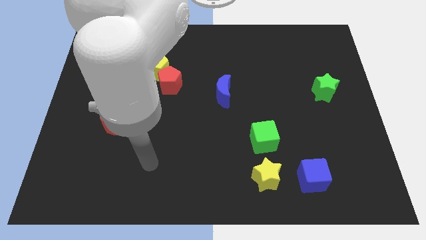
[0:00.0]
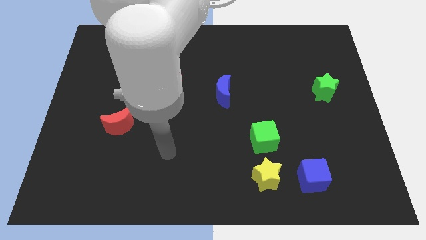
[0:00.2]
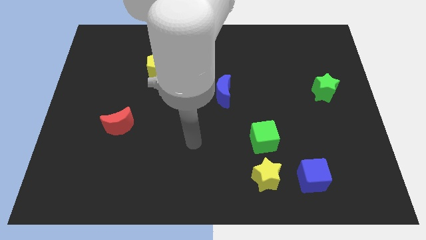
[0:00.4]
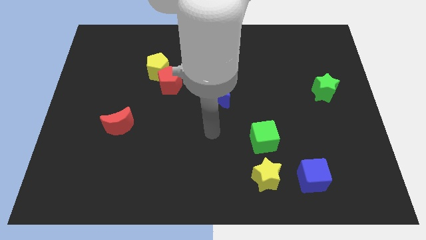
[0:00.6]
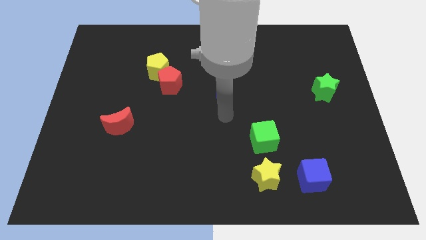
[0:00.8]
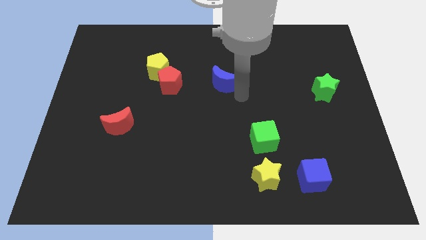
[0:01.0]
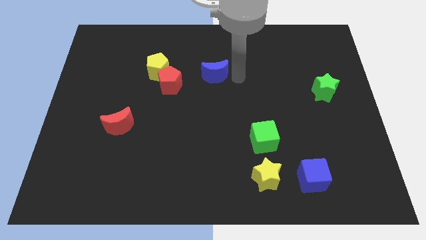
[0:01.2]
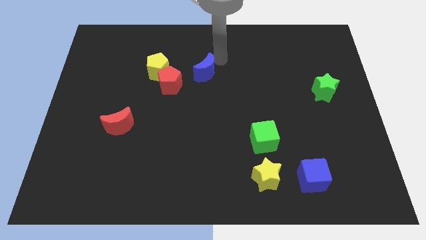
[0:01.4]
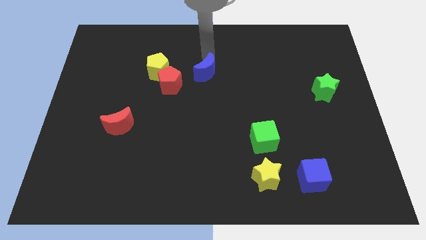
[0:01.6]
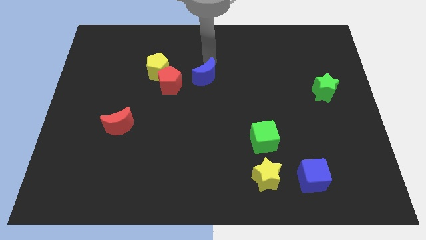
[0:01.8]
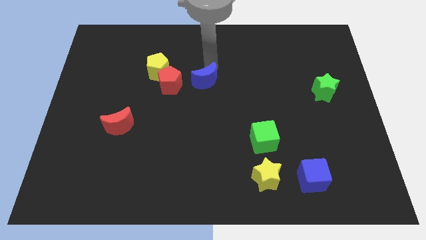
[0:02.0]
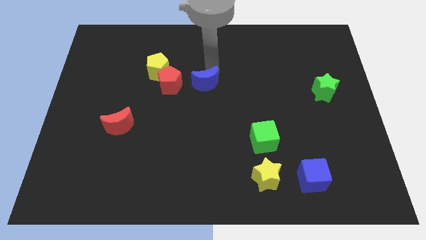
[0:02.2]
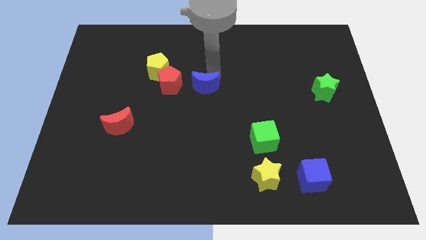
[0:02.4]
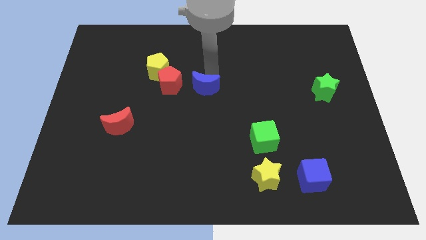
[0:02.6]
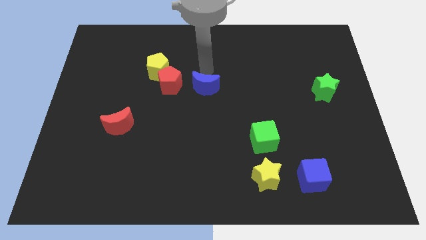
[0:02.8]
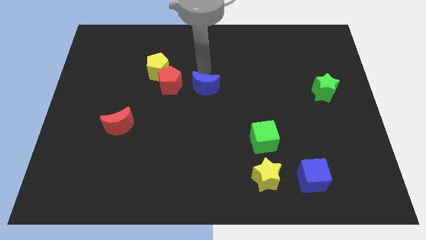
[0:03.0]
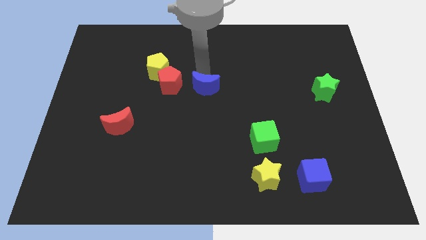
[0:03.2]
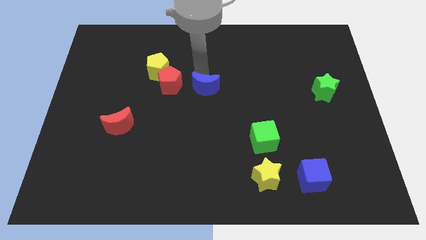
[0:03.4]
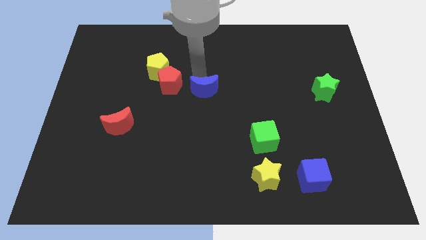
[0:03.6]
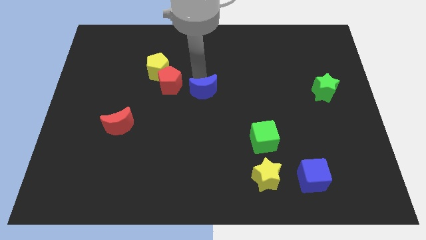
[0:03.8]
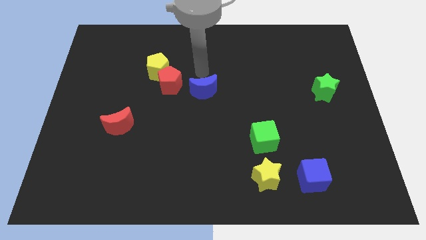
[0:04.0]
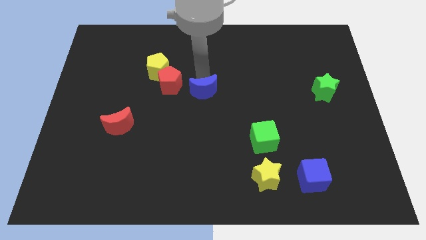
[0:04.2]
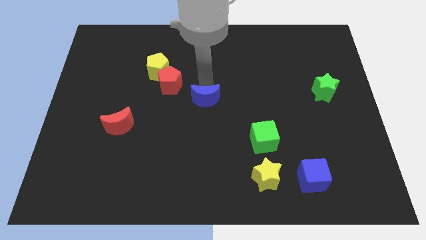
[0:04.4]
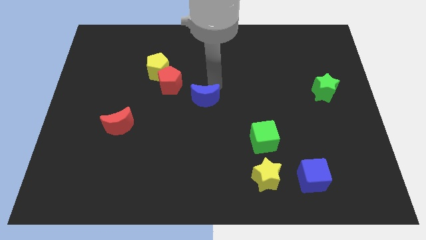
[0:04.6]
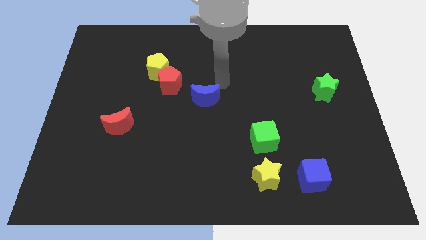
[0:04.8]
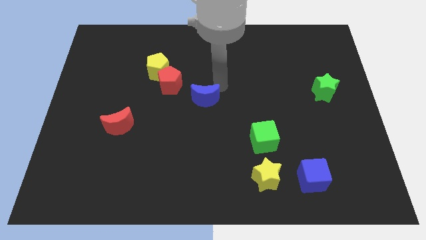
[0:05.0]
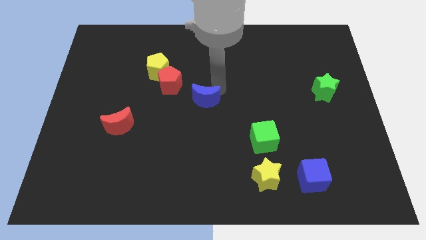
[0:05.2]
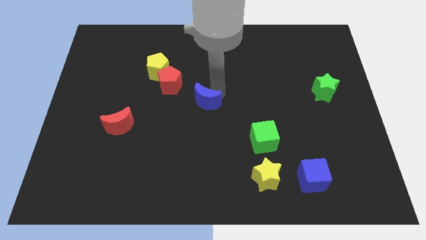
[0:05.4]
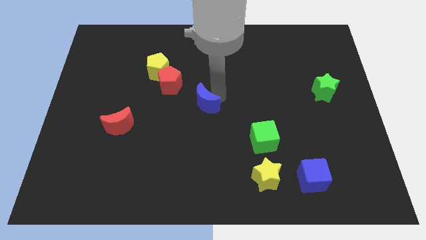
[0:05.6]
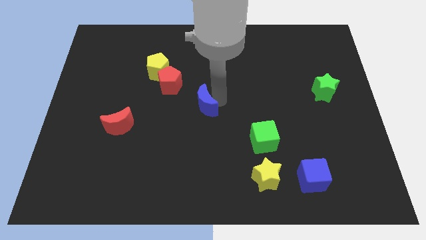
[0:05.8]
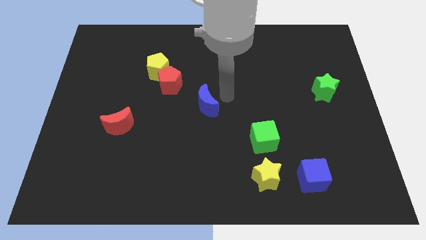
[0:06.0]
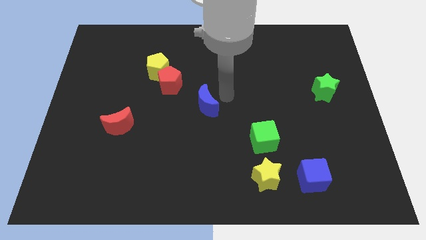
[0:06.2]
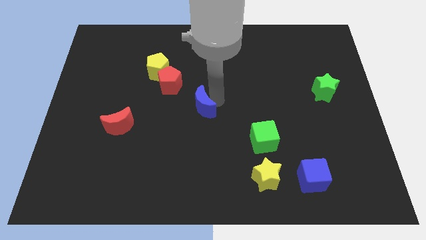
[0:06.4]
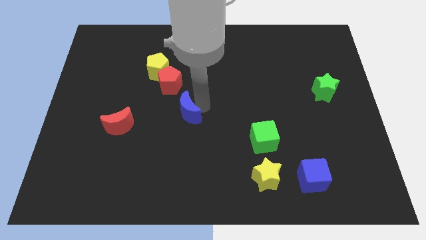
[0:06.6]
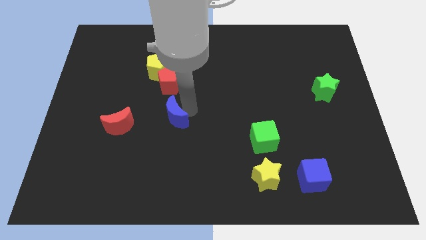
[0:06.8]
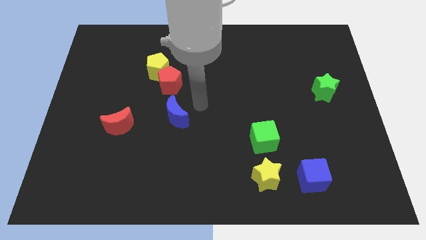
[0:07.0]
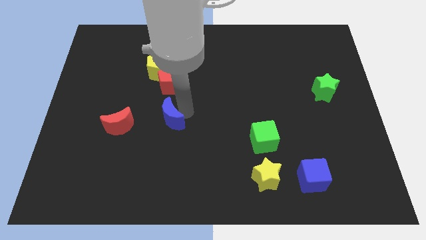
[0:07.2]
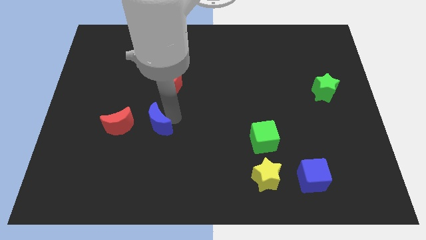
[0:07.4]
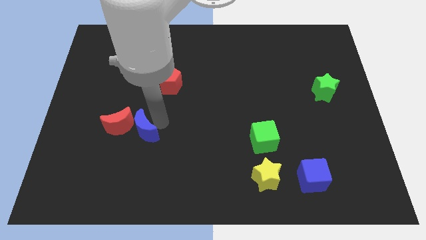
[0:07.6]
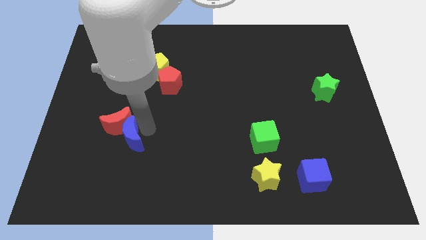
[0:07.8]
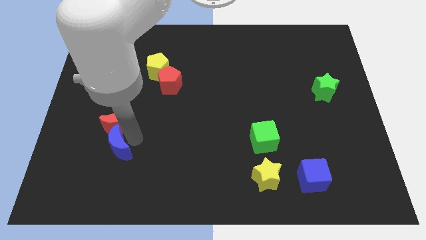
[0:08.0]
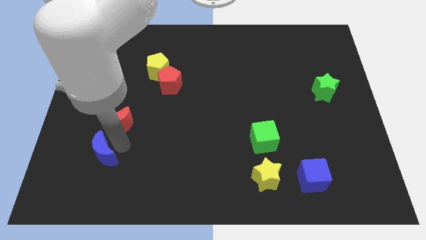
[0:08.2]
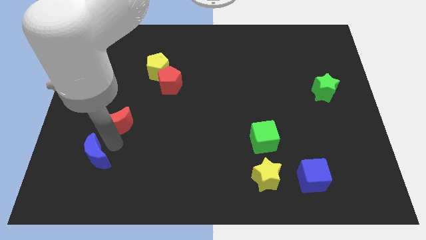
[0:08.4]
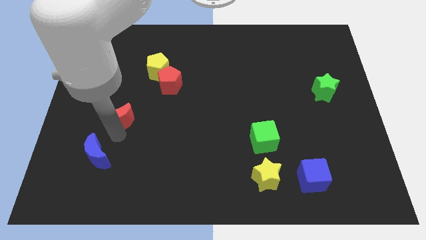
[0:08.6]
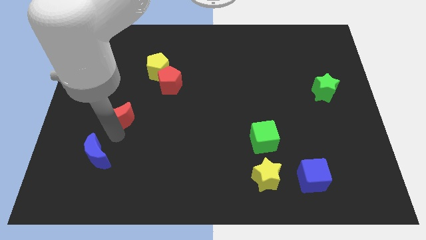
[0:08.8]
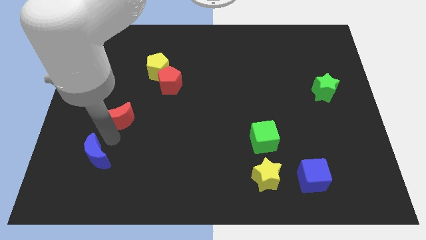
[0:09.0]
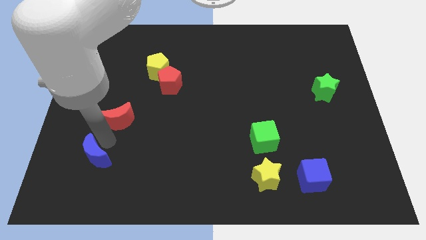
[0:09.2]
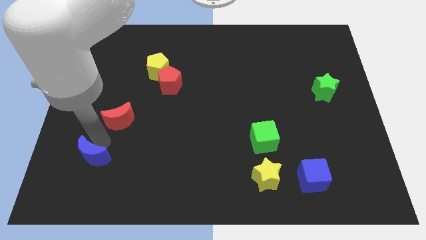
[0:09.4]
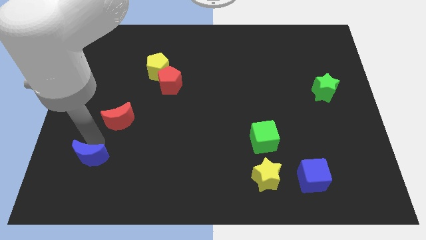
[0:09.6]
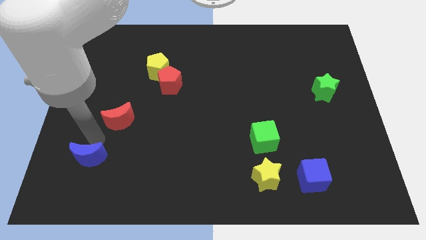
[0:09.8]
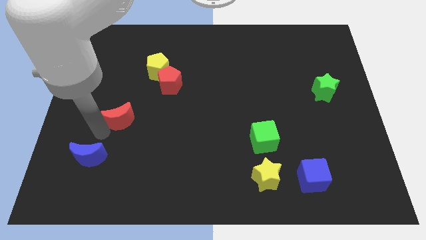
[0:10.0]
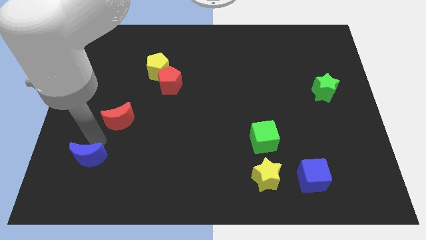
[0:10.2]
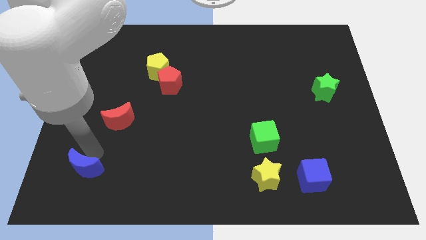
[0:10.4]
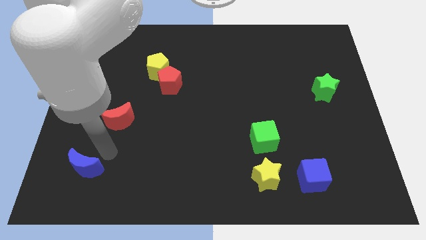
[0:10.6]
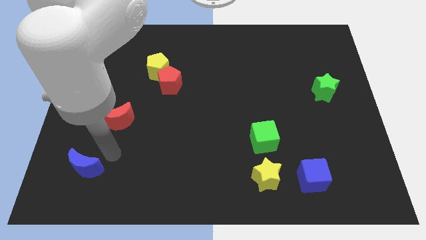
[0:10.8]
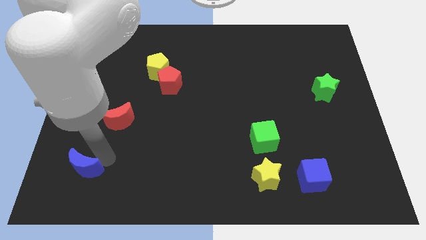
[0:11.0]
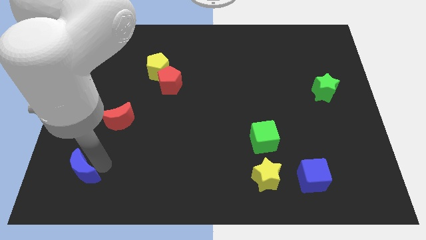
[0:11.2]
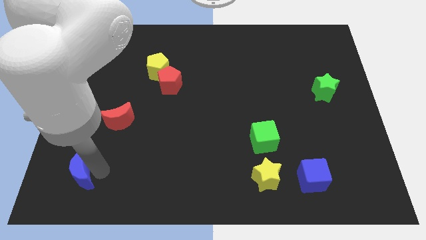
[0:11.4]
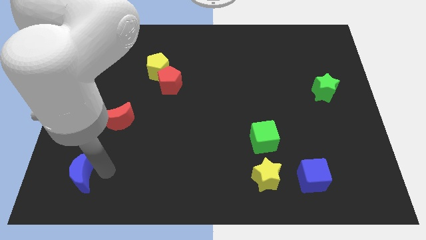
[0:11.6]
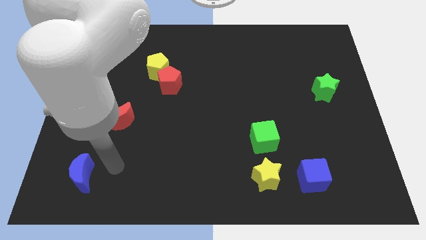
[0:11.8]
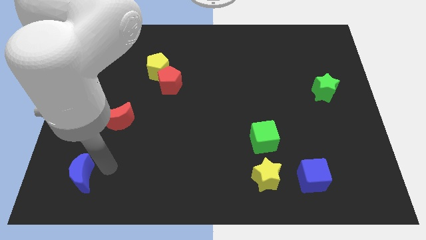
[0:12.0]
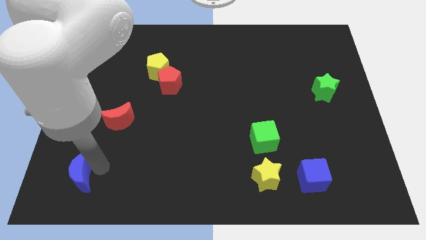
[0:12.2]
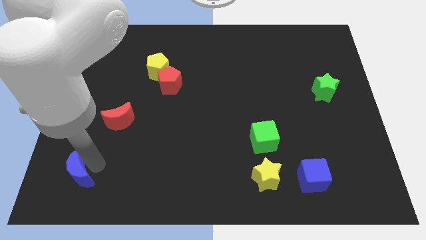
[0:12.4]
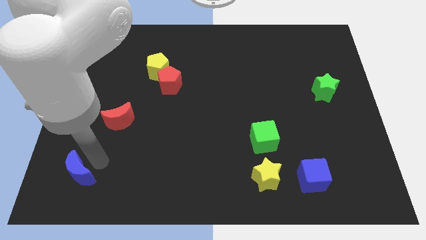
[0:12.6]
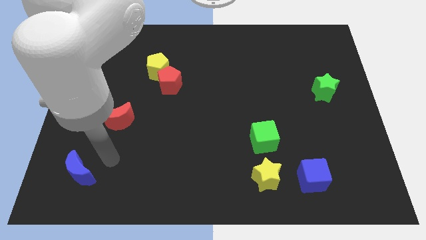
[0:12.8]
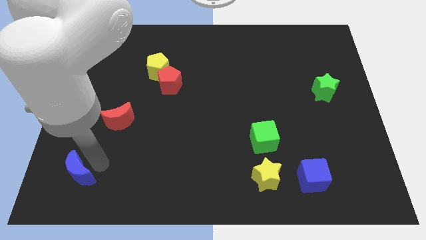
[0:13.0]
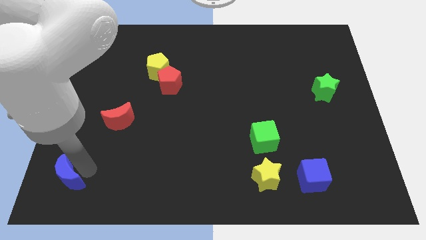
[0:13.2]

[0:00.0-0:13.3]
move the blue moon to the bottom left

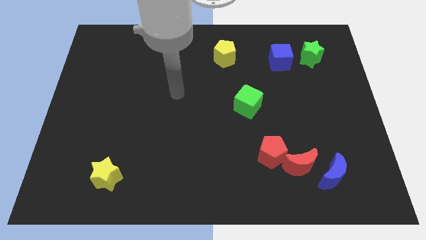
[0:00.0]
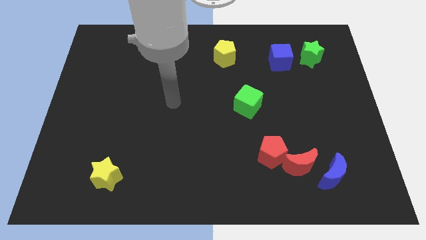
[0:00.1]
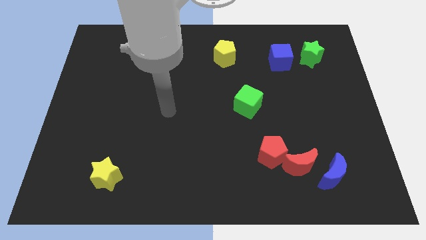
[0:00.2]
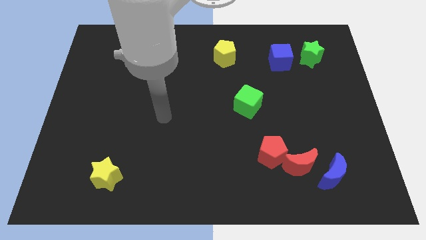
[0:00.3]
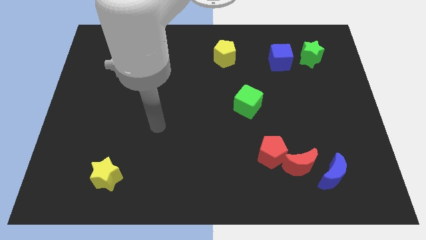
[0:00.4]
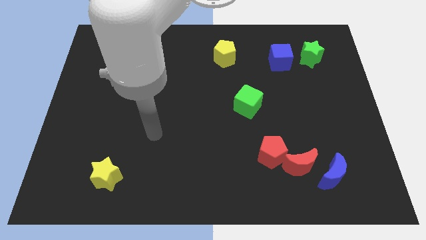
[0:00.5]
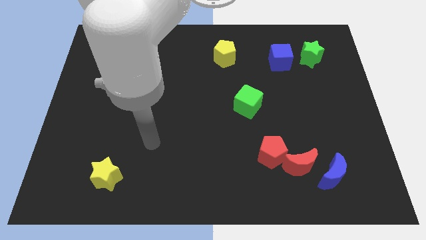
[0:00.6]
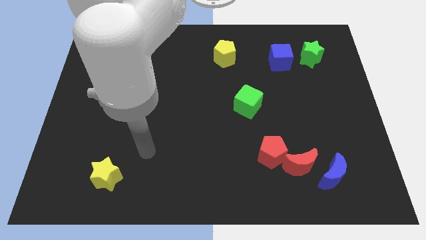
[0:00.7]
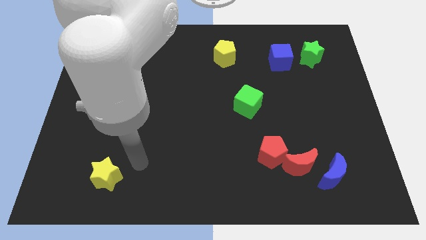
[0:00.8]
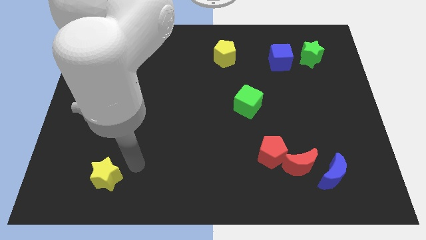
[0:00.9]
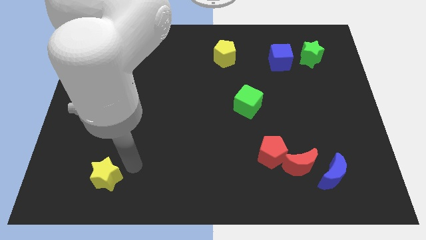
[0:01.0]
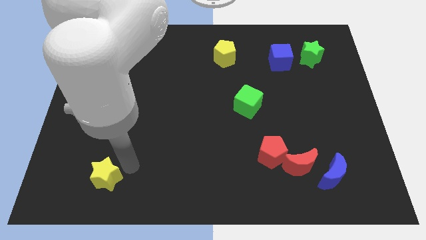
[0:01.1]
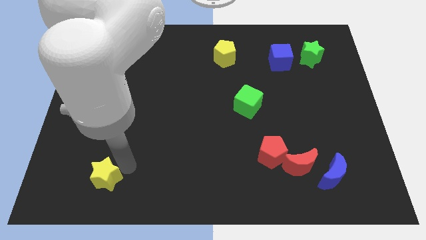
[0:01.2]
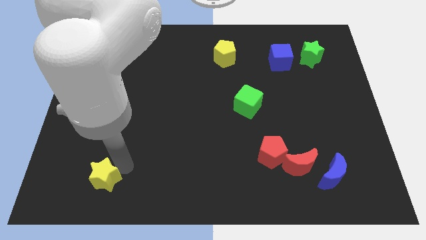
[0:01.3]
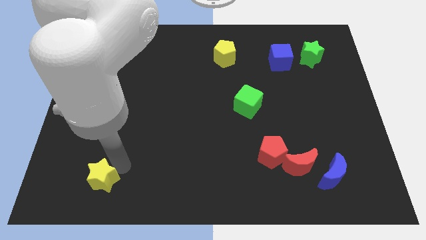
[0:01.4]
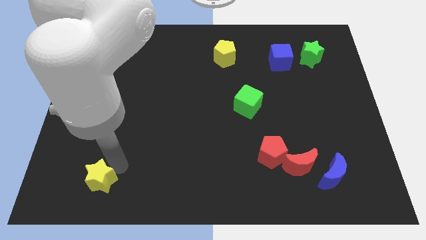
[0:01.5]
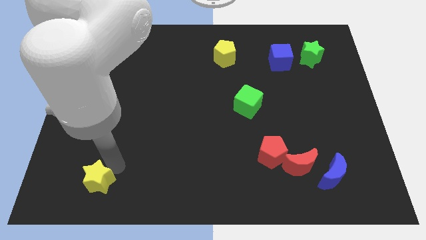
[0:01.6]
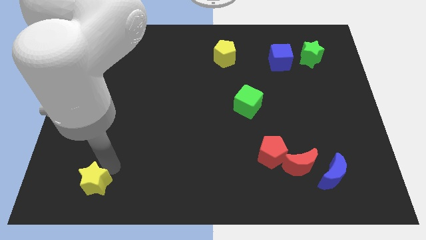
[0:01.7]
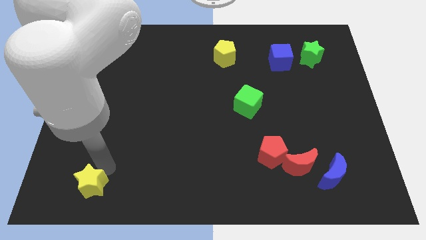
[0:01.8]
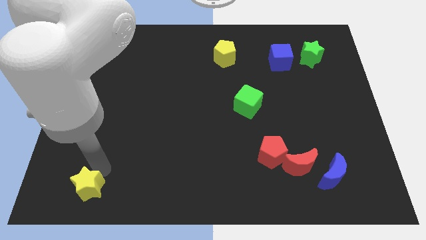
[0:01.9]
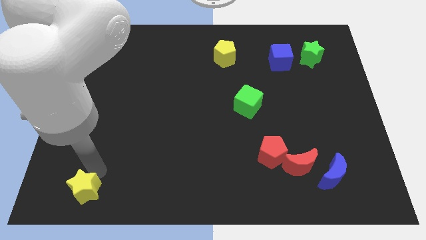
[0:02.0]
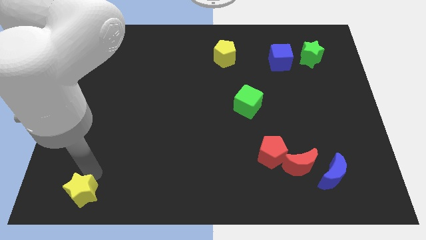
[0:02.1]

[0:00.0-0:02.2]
put the yellow star to the bottom left of the board
